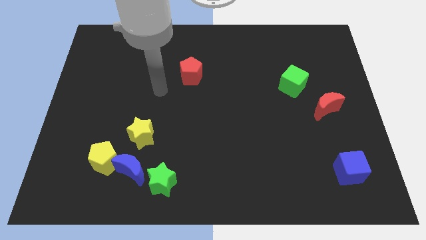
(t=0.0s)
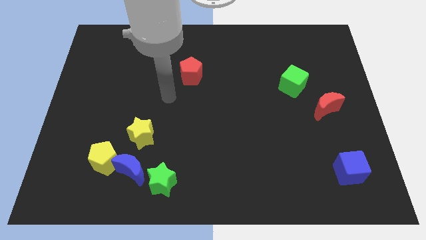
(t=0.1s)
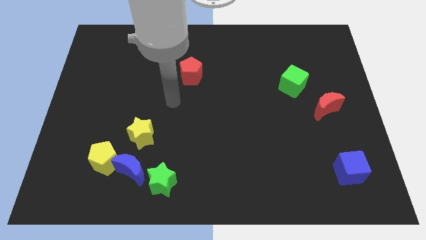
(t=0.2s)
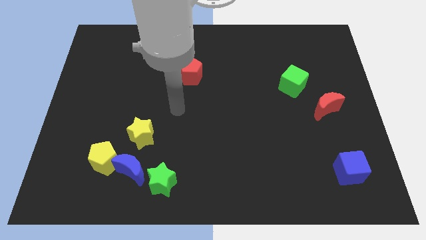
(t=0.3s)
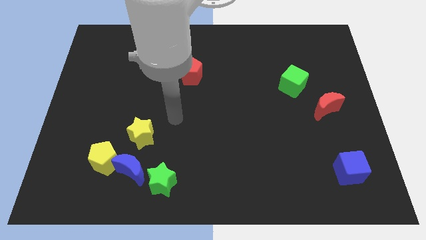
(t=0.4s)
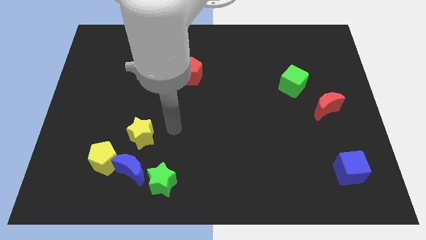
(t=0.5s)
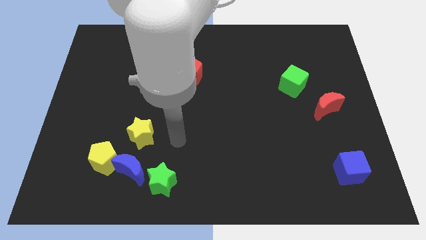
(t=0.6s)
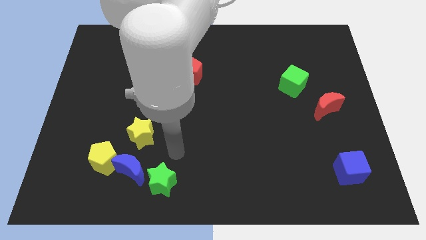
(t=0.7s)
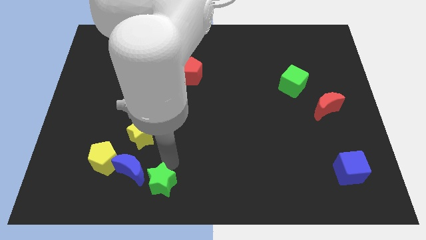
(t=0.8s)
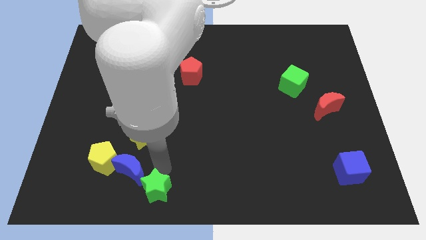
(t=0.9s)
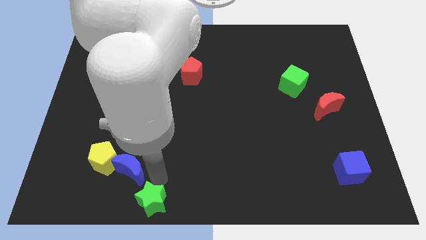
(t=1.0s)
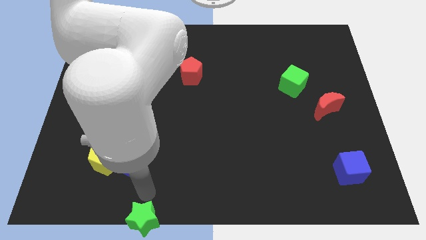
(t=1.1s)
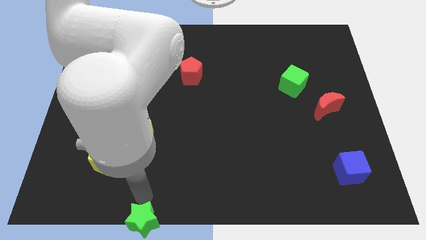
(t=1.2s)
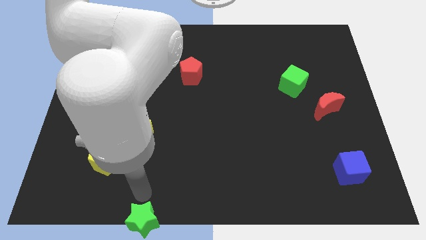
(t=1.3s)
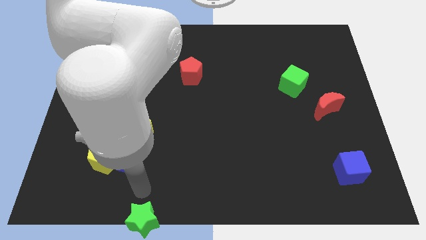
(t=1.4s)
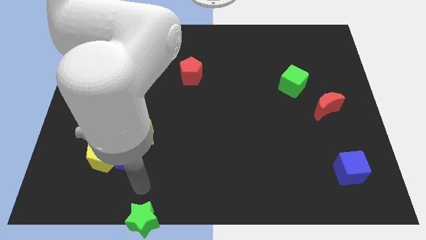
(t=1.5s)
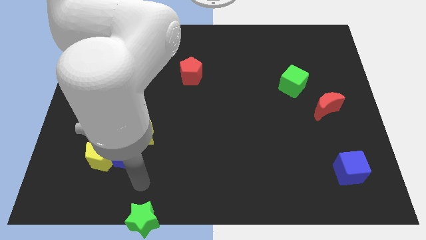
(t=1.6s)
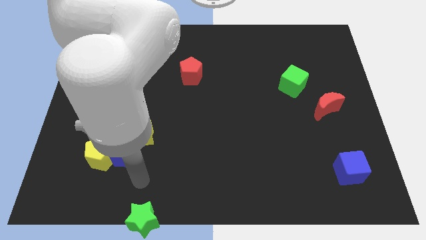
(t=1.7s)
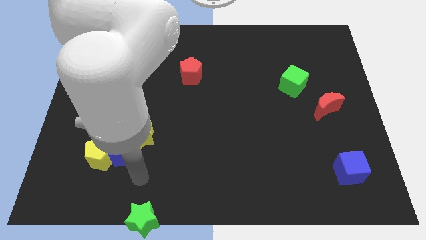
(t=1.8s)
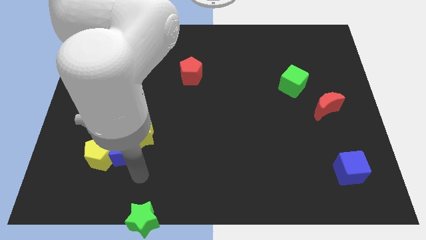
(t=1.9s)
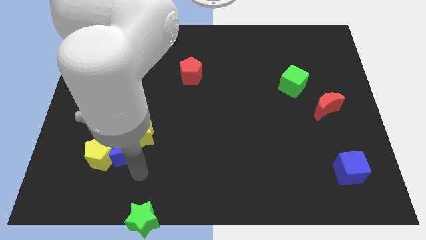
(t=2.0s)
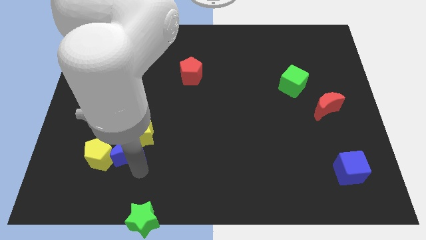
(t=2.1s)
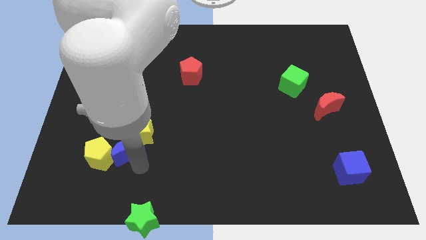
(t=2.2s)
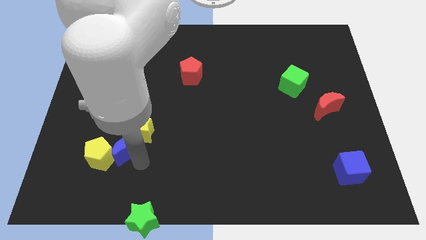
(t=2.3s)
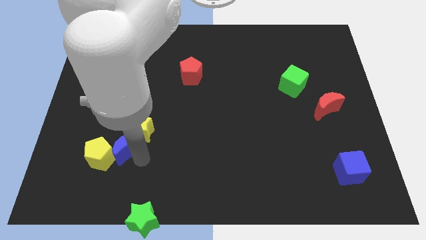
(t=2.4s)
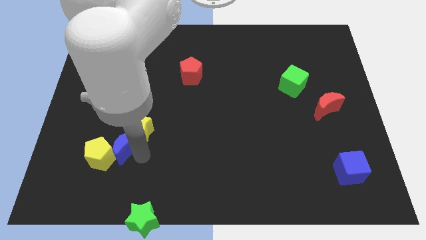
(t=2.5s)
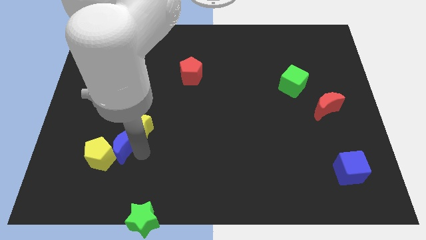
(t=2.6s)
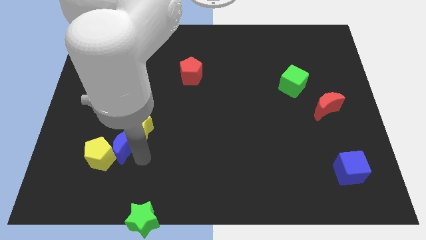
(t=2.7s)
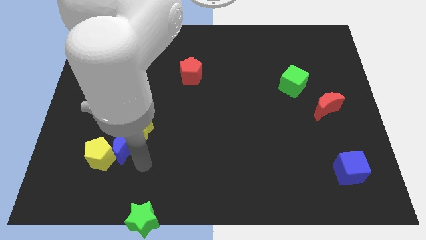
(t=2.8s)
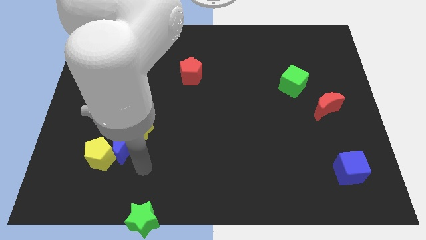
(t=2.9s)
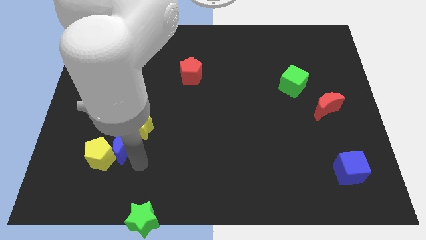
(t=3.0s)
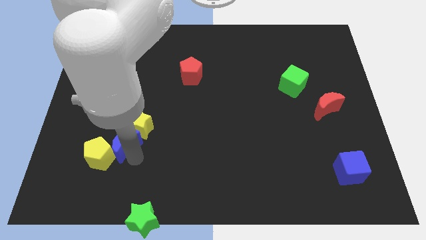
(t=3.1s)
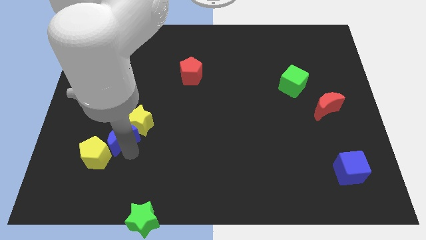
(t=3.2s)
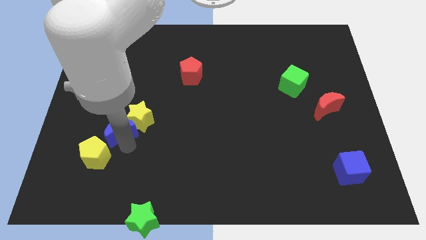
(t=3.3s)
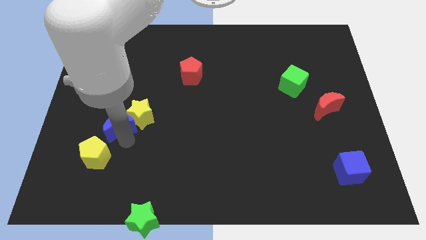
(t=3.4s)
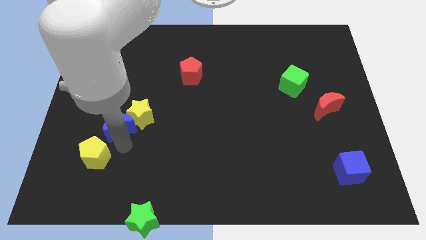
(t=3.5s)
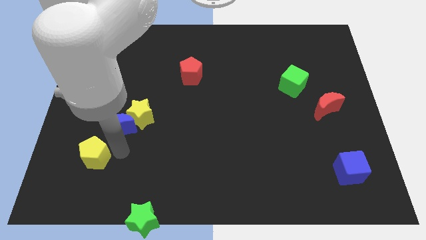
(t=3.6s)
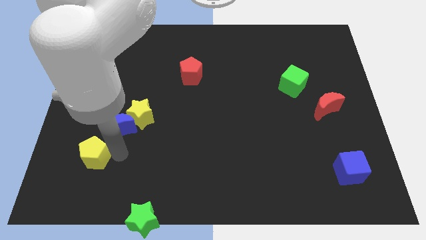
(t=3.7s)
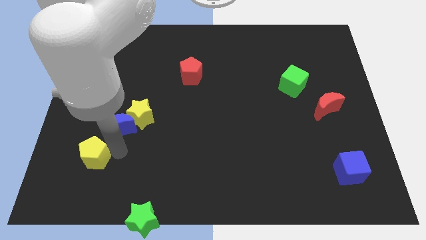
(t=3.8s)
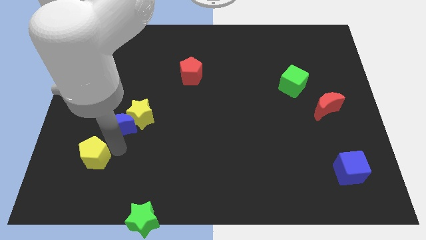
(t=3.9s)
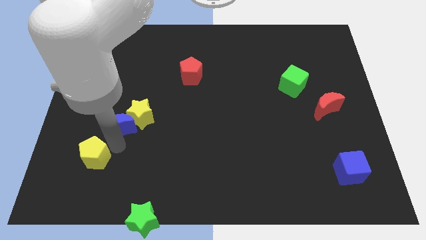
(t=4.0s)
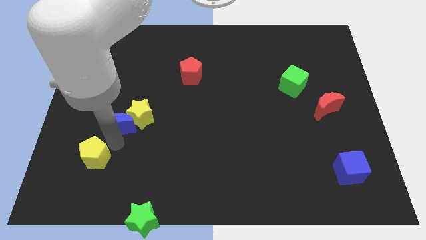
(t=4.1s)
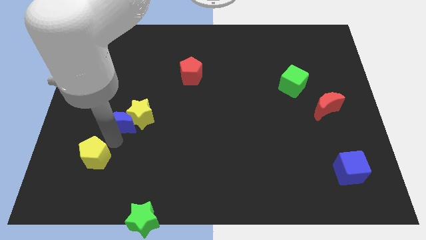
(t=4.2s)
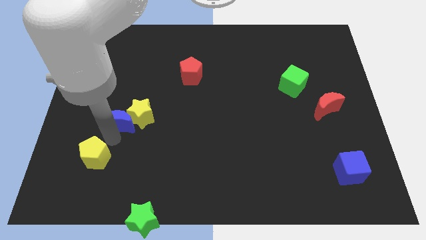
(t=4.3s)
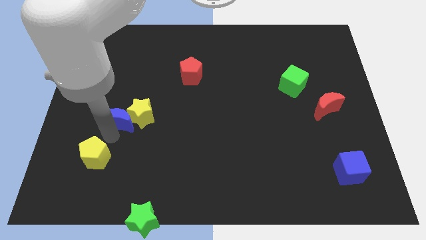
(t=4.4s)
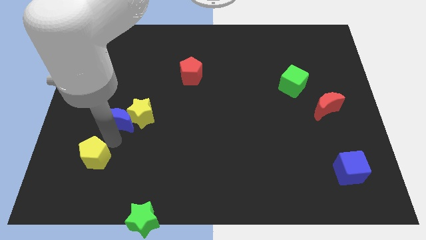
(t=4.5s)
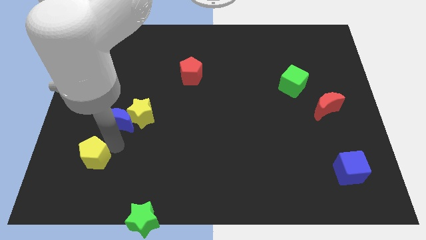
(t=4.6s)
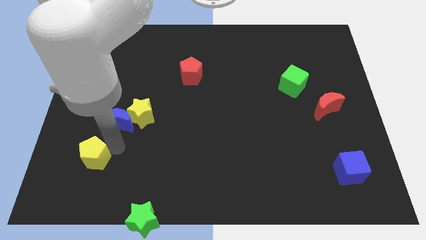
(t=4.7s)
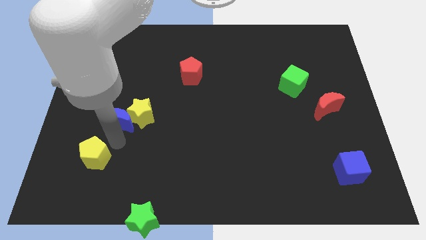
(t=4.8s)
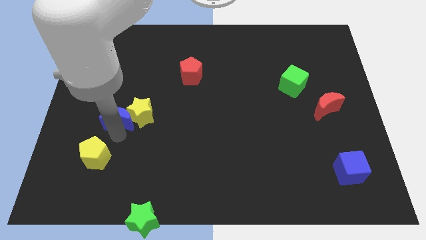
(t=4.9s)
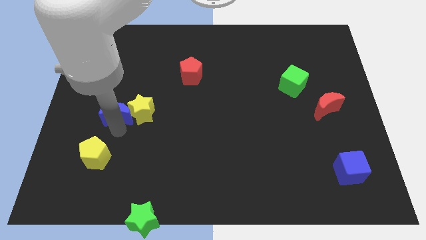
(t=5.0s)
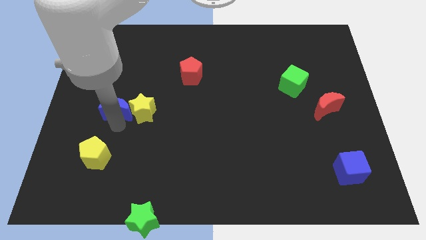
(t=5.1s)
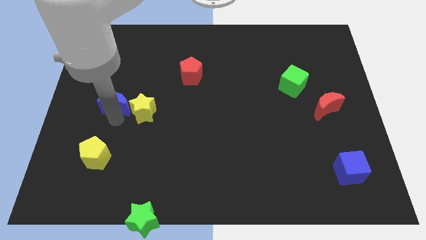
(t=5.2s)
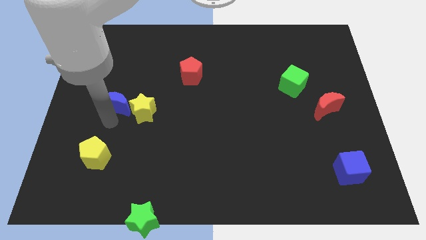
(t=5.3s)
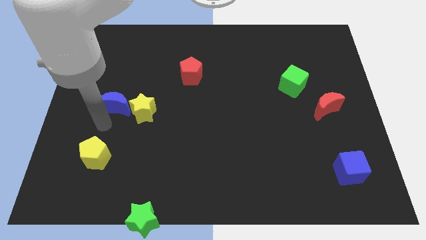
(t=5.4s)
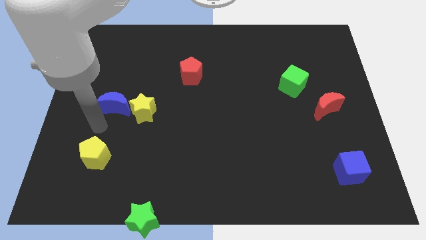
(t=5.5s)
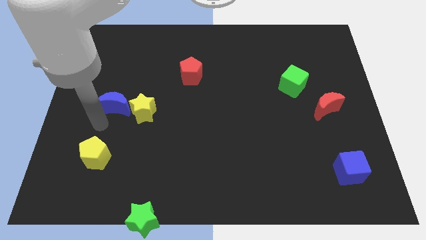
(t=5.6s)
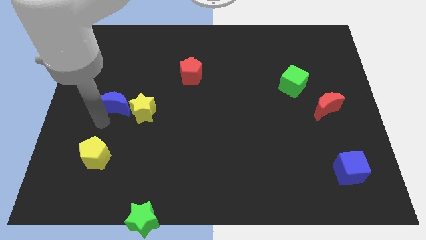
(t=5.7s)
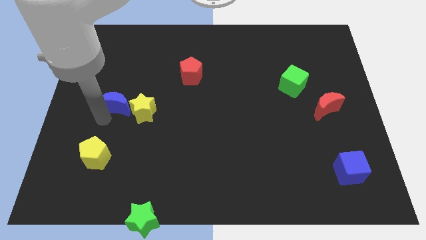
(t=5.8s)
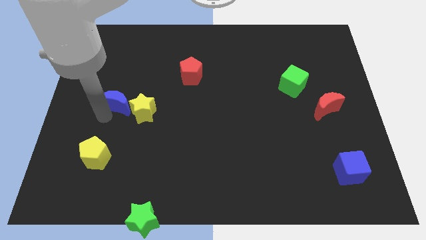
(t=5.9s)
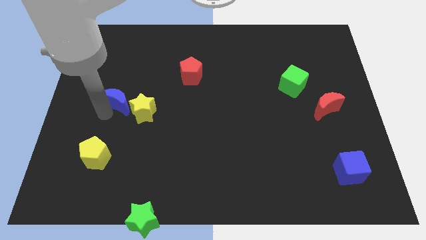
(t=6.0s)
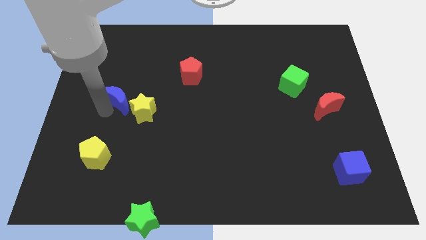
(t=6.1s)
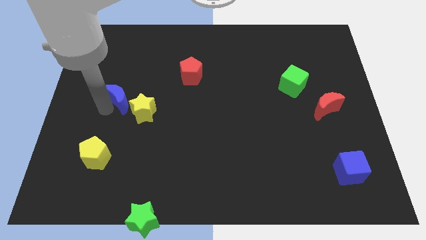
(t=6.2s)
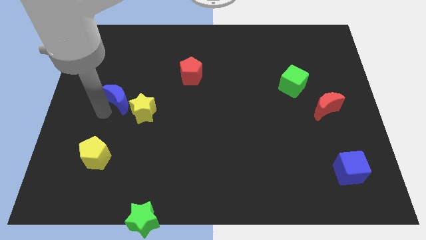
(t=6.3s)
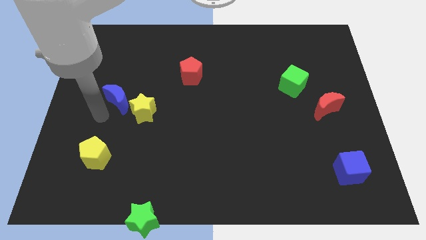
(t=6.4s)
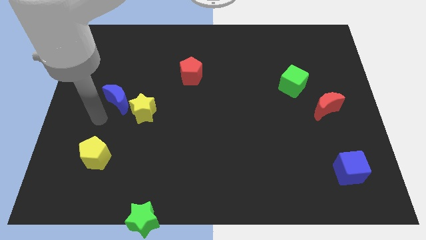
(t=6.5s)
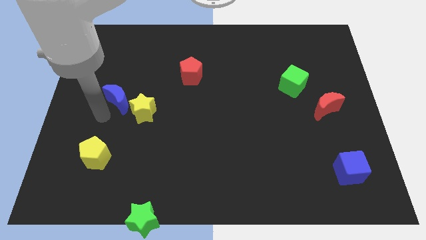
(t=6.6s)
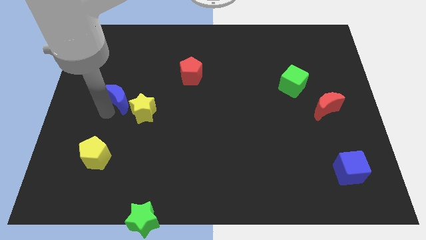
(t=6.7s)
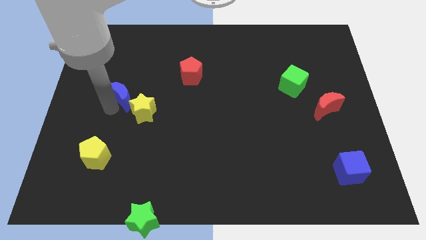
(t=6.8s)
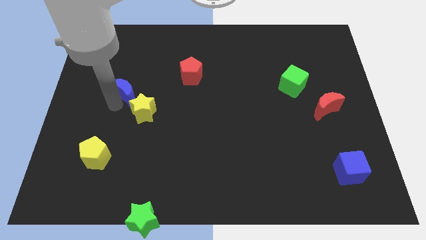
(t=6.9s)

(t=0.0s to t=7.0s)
push the blue moon up

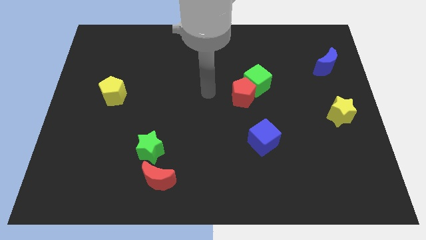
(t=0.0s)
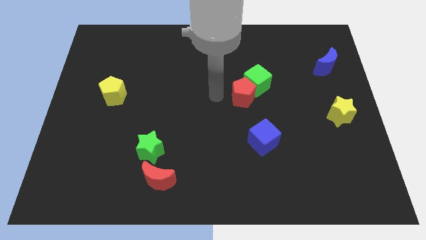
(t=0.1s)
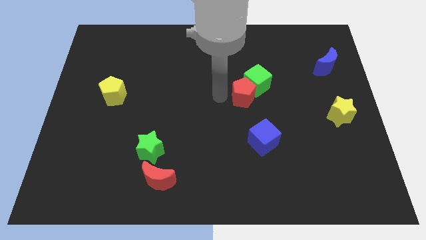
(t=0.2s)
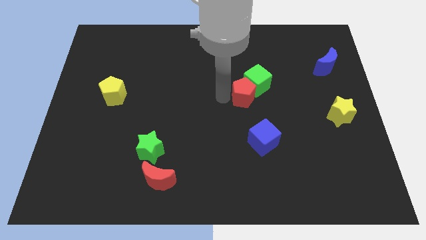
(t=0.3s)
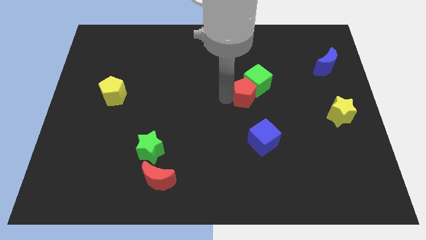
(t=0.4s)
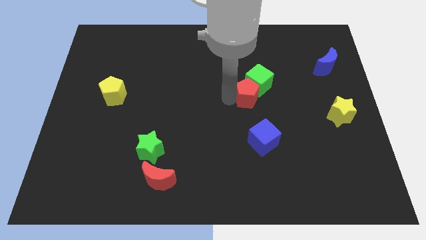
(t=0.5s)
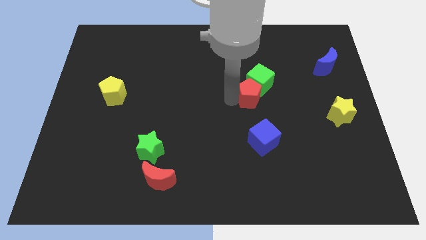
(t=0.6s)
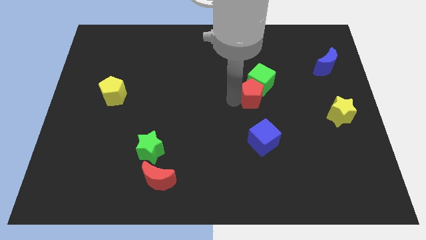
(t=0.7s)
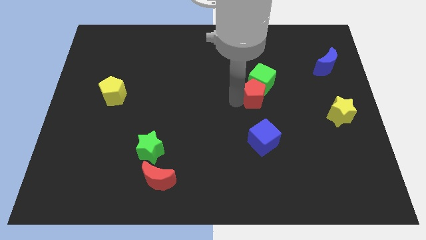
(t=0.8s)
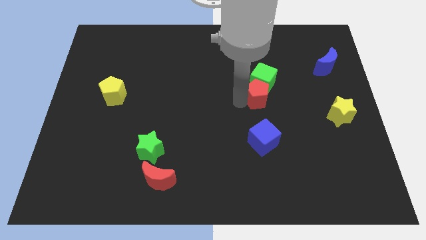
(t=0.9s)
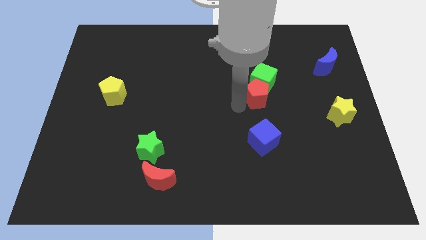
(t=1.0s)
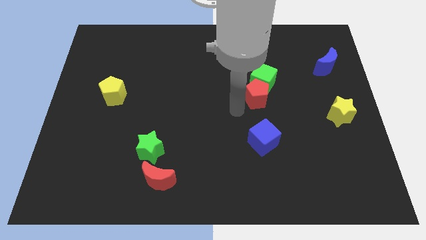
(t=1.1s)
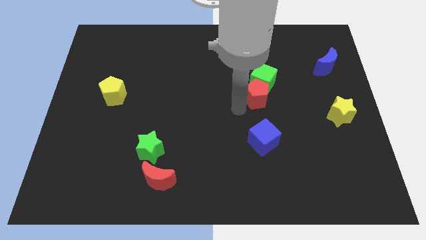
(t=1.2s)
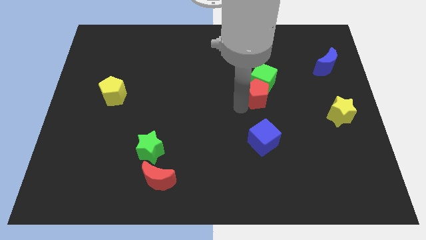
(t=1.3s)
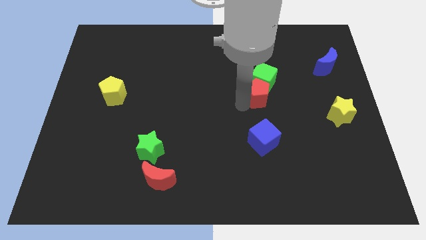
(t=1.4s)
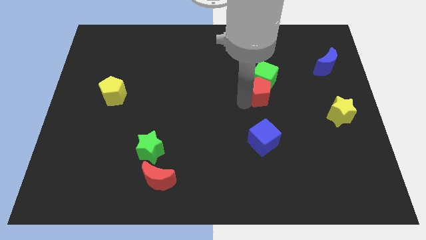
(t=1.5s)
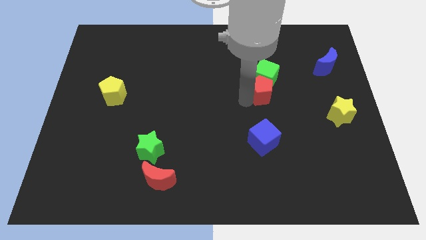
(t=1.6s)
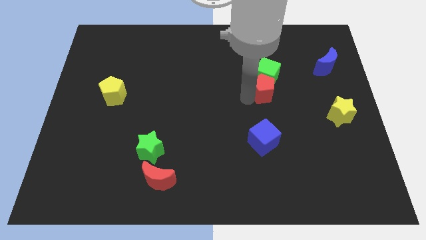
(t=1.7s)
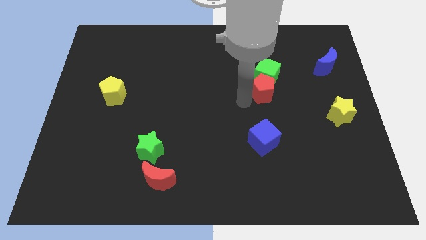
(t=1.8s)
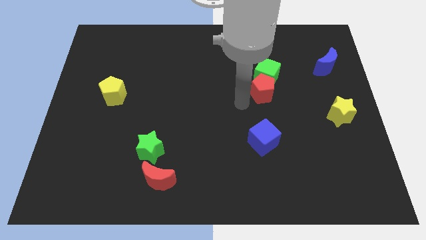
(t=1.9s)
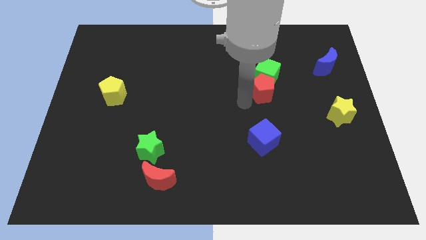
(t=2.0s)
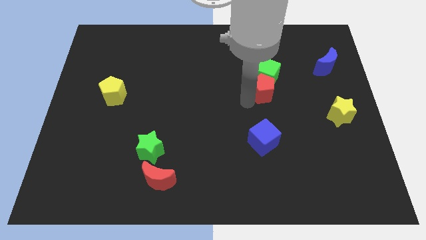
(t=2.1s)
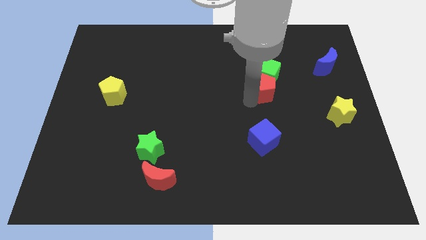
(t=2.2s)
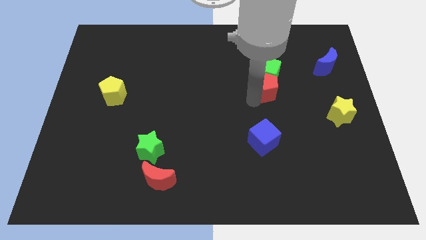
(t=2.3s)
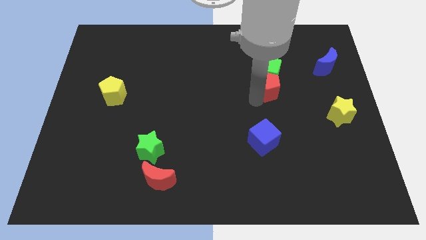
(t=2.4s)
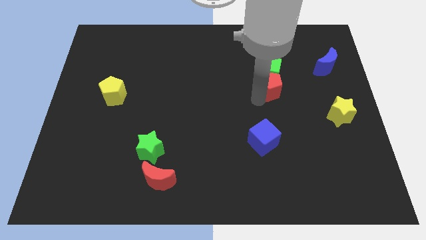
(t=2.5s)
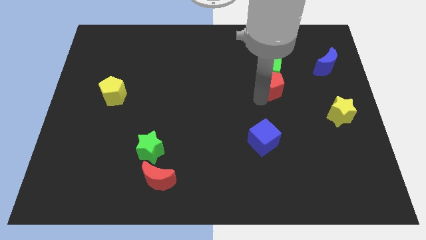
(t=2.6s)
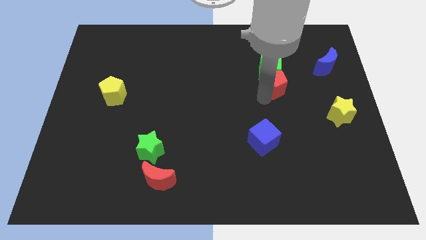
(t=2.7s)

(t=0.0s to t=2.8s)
push the red pentagon upwards and to the right diagonally a little
